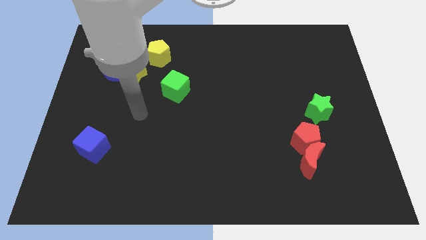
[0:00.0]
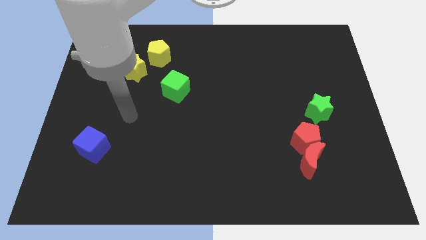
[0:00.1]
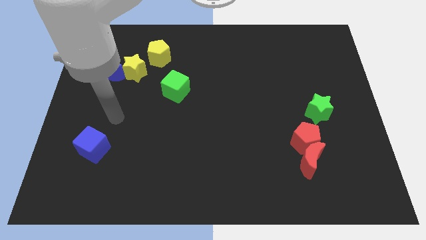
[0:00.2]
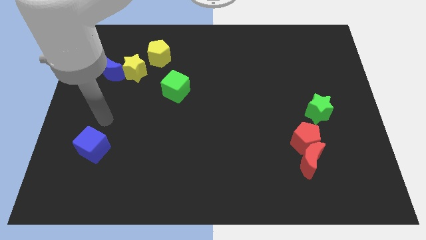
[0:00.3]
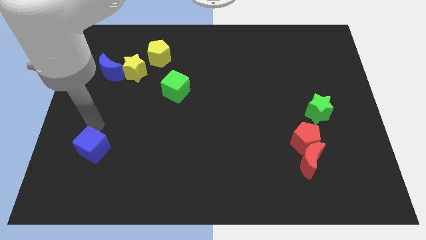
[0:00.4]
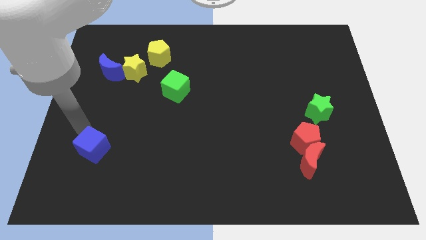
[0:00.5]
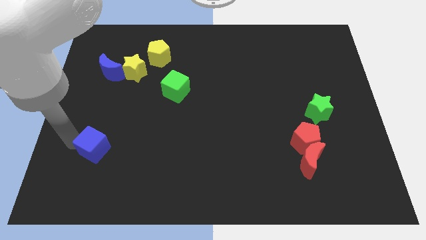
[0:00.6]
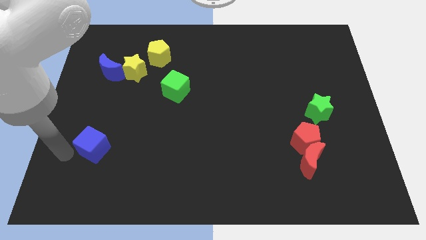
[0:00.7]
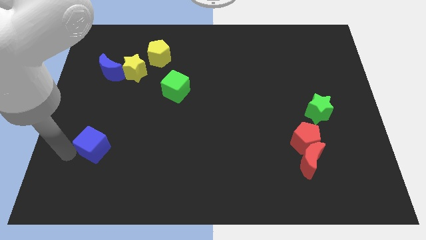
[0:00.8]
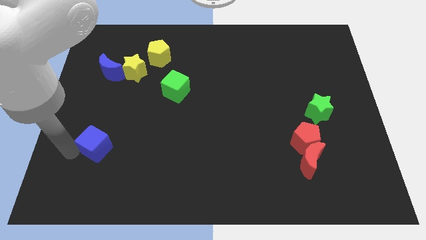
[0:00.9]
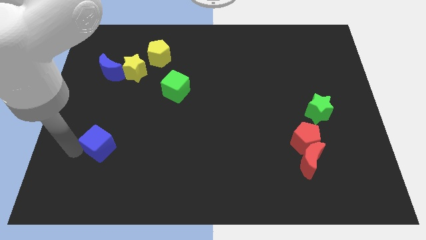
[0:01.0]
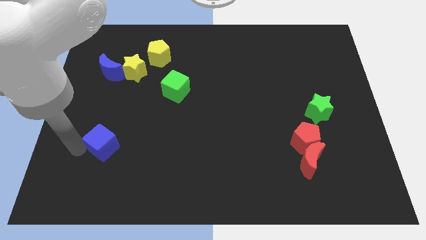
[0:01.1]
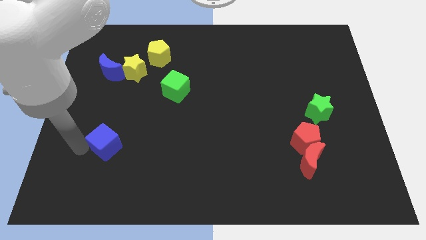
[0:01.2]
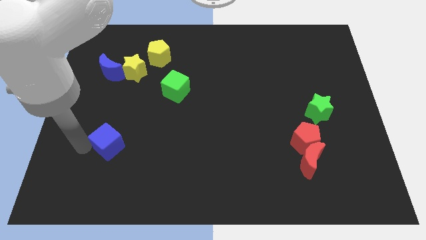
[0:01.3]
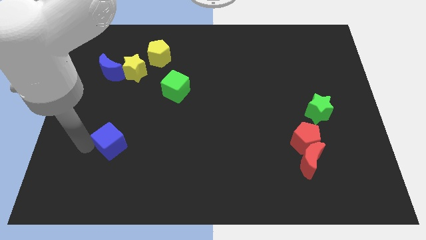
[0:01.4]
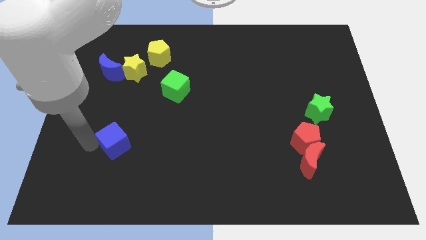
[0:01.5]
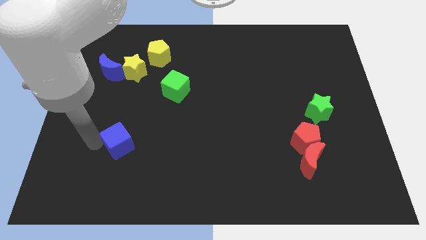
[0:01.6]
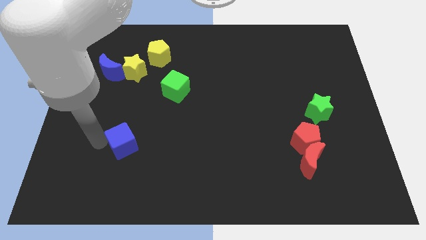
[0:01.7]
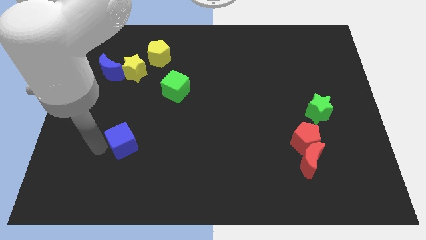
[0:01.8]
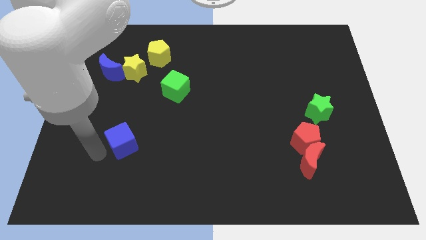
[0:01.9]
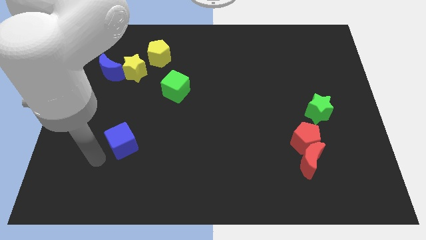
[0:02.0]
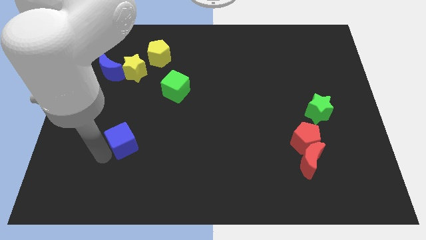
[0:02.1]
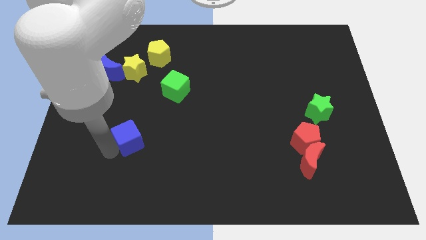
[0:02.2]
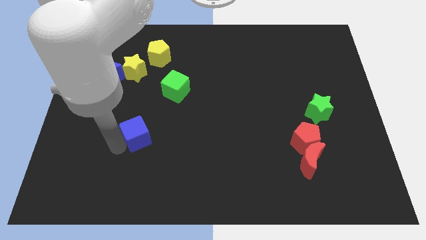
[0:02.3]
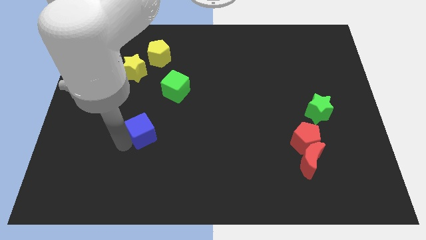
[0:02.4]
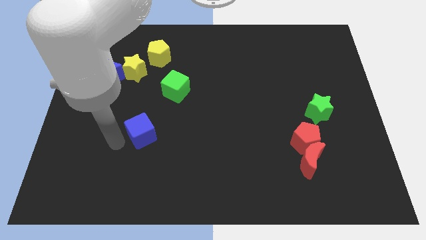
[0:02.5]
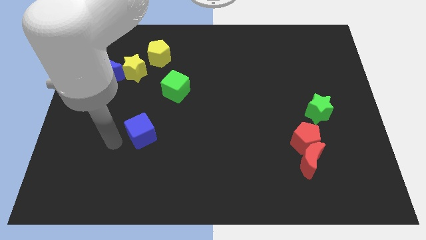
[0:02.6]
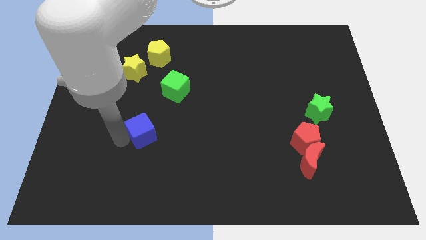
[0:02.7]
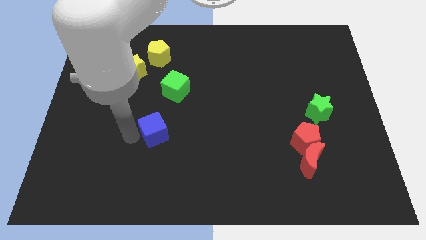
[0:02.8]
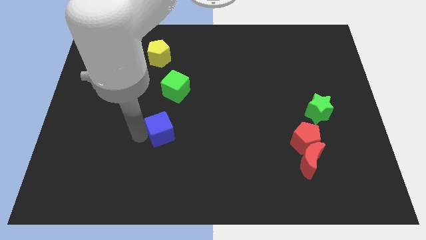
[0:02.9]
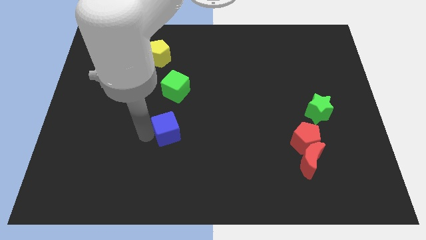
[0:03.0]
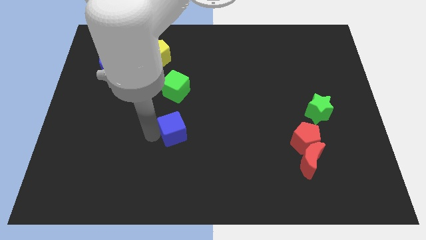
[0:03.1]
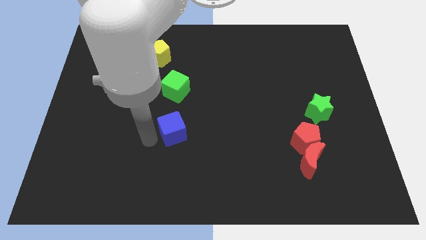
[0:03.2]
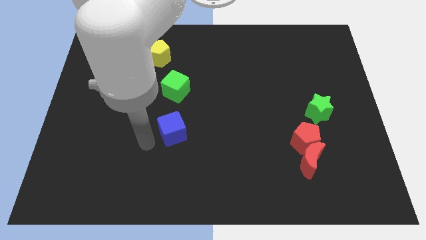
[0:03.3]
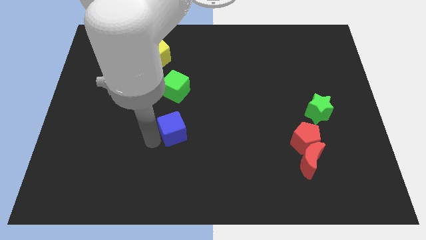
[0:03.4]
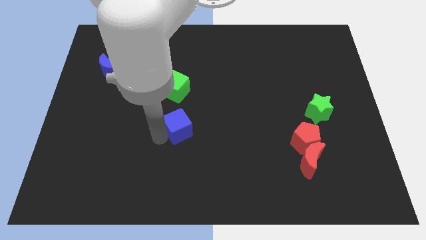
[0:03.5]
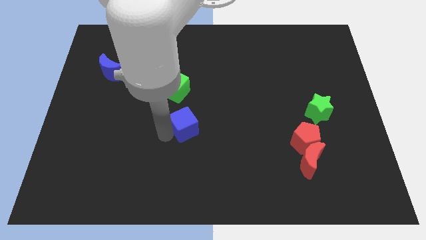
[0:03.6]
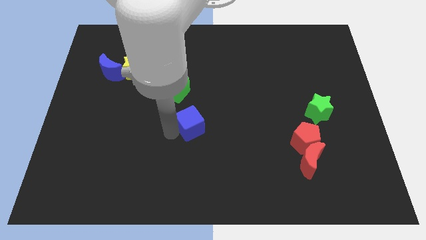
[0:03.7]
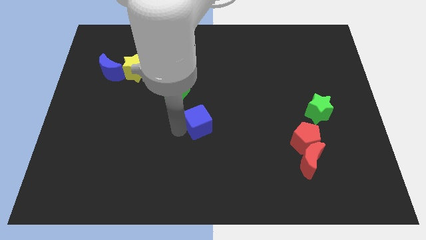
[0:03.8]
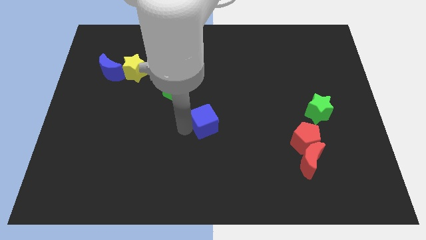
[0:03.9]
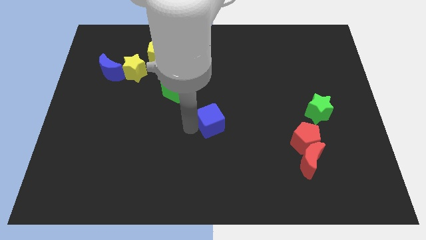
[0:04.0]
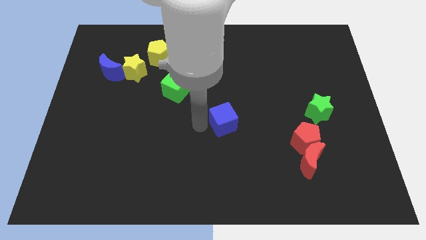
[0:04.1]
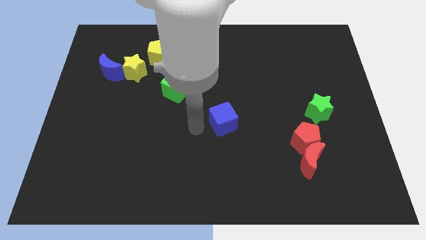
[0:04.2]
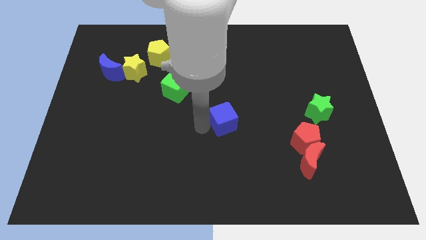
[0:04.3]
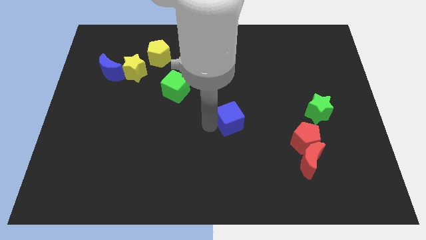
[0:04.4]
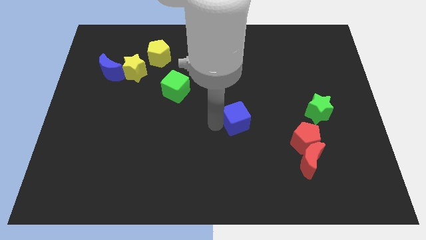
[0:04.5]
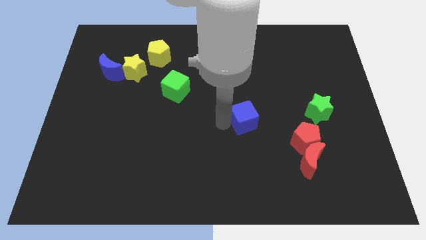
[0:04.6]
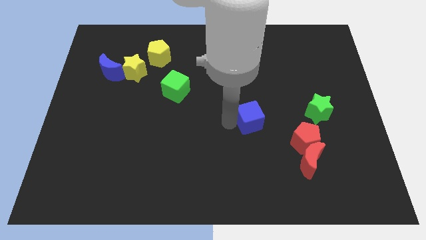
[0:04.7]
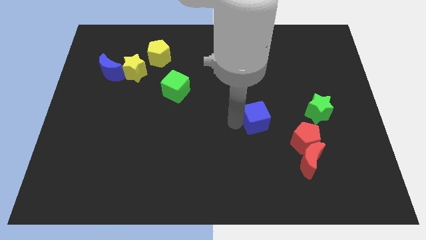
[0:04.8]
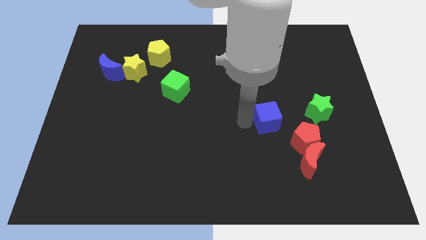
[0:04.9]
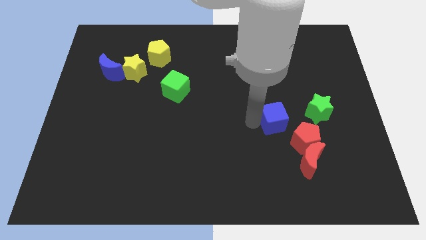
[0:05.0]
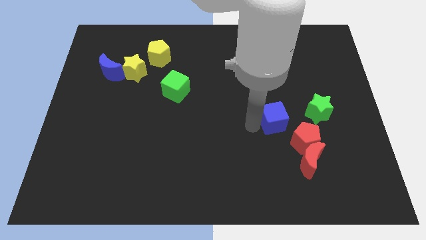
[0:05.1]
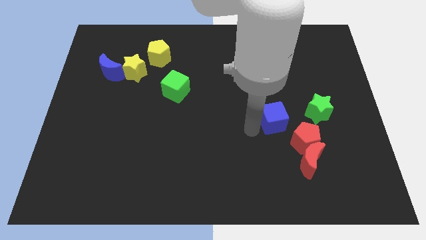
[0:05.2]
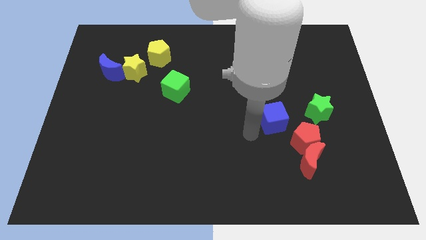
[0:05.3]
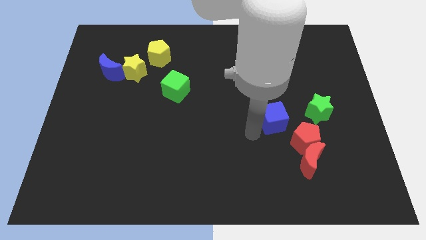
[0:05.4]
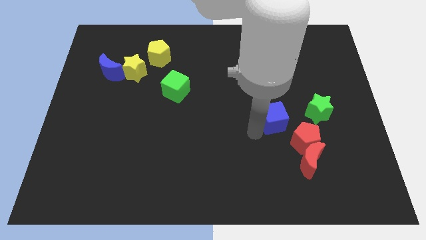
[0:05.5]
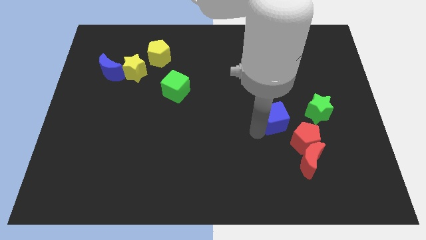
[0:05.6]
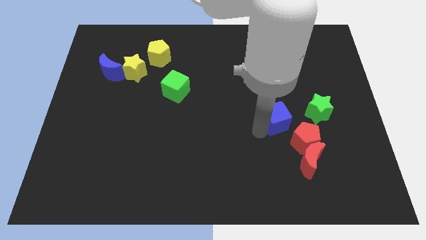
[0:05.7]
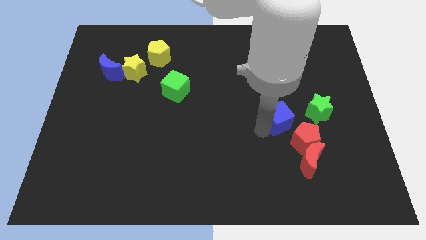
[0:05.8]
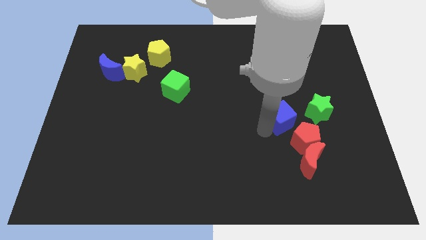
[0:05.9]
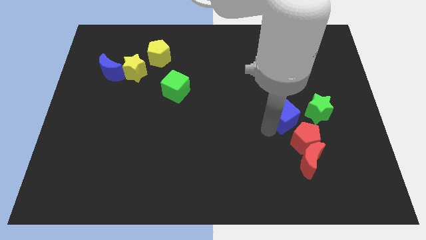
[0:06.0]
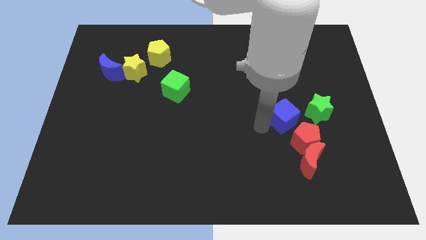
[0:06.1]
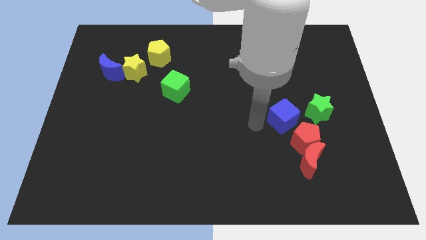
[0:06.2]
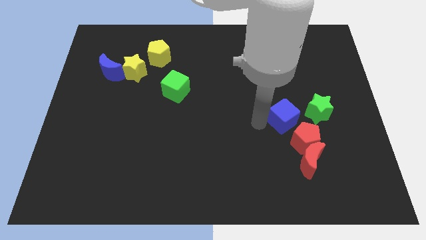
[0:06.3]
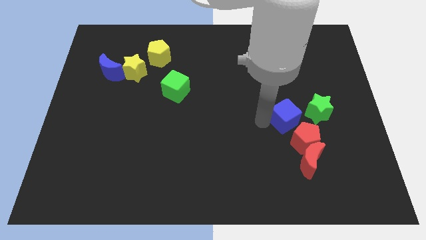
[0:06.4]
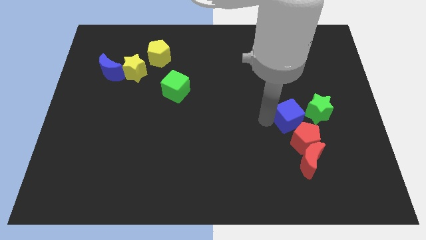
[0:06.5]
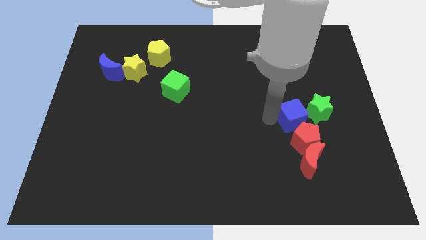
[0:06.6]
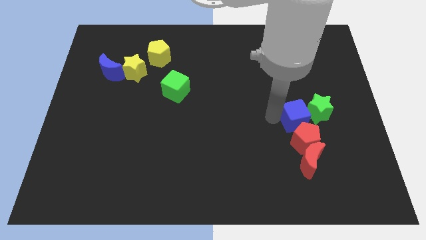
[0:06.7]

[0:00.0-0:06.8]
slide the blue cube towards the green star
